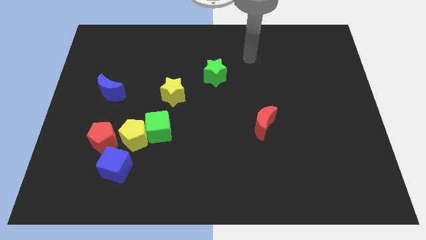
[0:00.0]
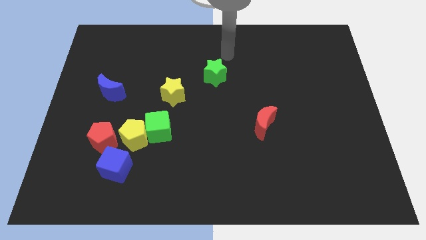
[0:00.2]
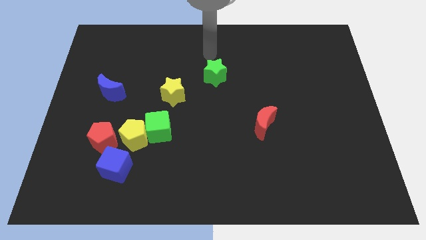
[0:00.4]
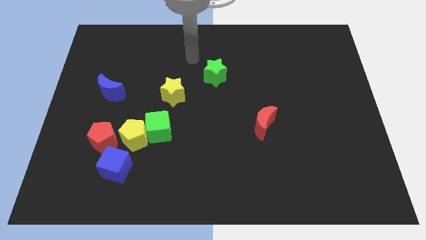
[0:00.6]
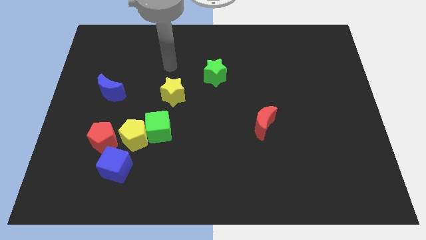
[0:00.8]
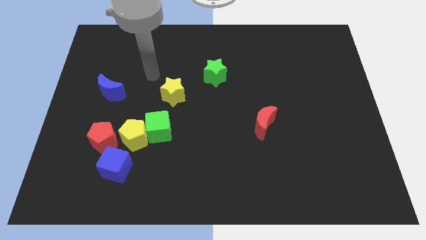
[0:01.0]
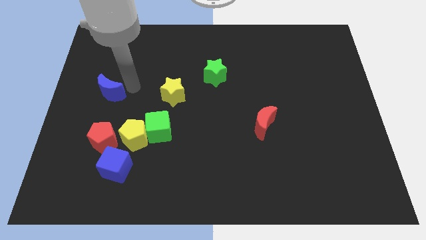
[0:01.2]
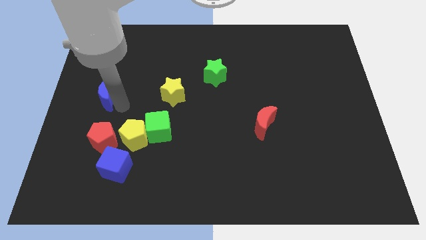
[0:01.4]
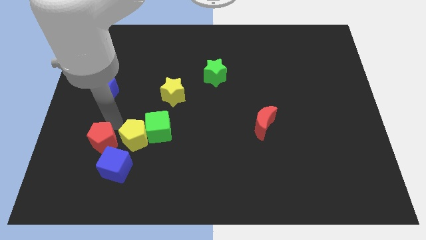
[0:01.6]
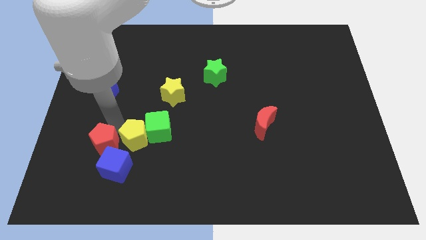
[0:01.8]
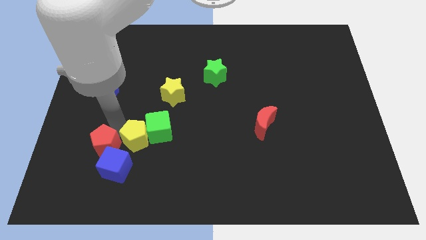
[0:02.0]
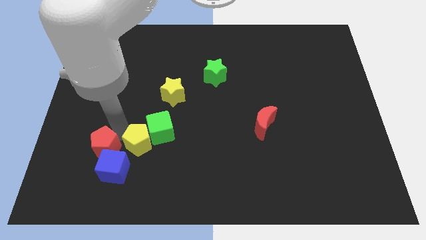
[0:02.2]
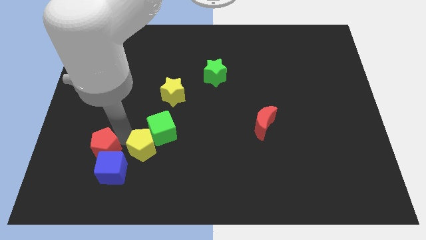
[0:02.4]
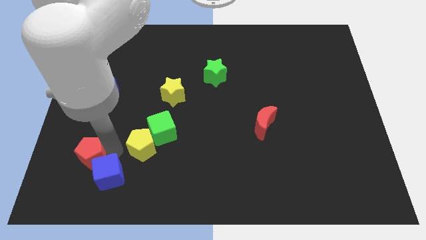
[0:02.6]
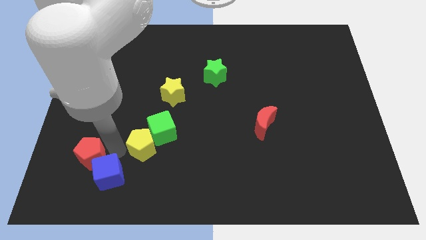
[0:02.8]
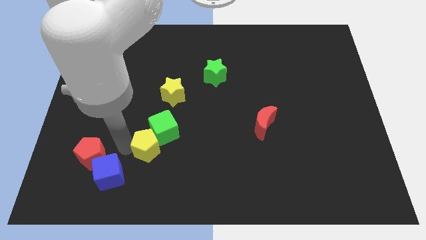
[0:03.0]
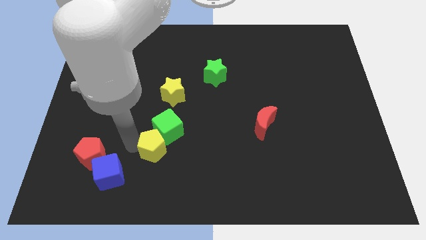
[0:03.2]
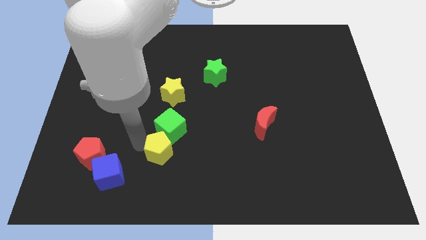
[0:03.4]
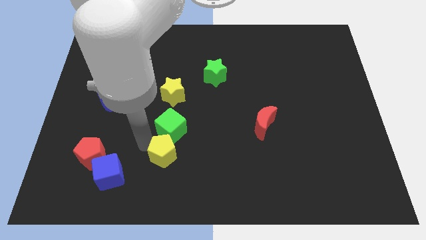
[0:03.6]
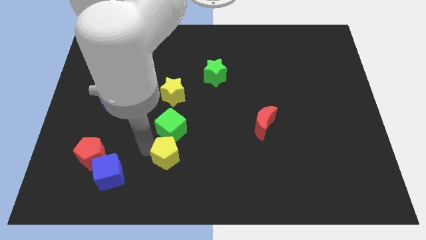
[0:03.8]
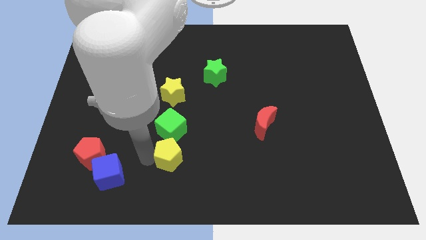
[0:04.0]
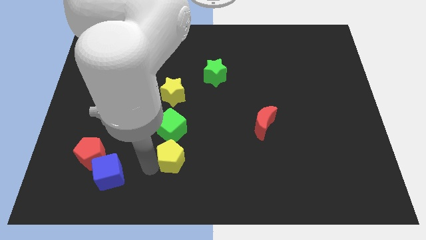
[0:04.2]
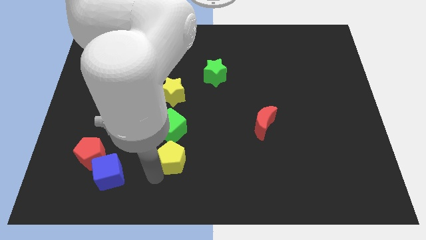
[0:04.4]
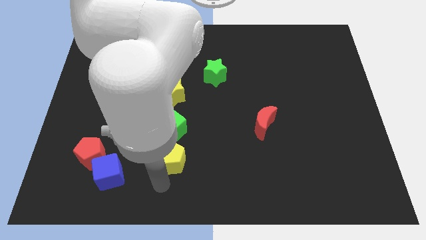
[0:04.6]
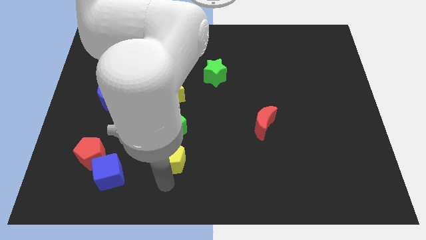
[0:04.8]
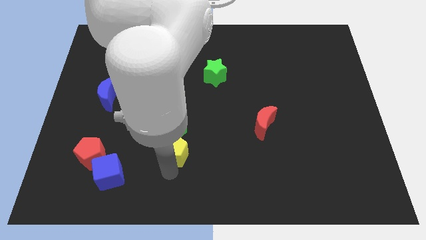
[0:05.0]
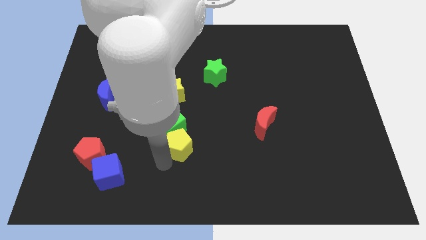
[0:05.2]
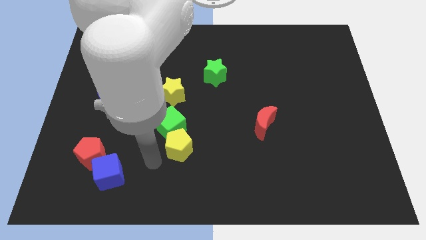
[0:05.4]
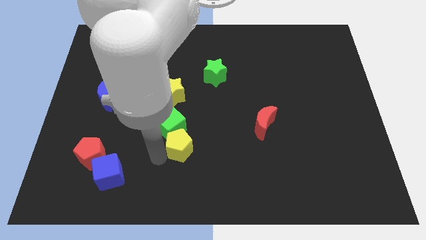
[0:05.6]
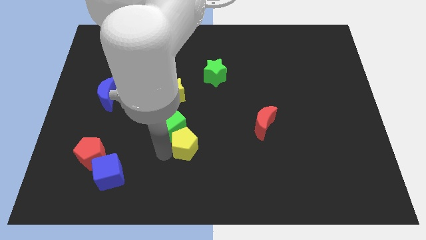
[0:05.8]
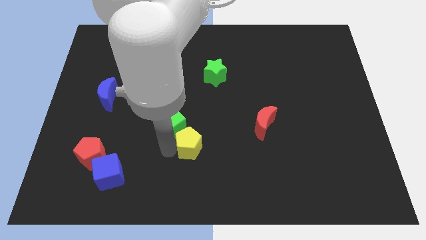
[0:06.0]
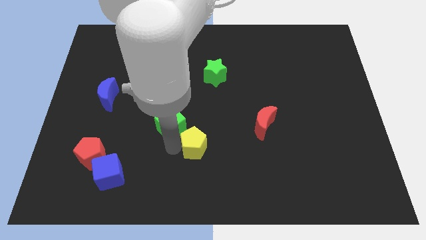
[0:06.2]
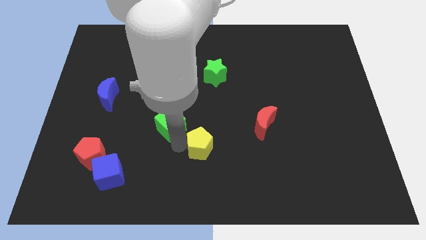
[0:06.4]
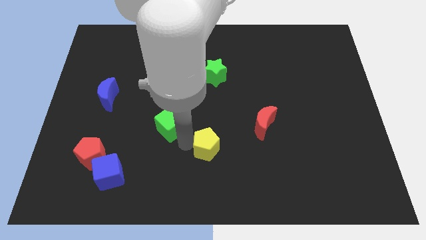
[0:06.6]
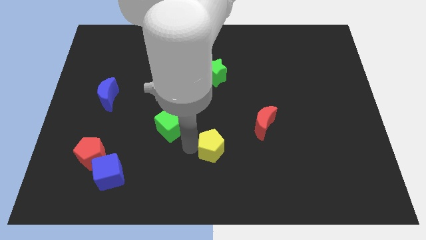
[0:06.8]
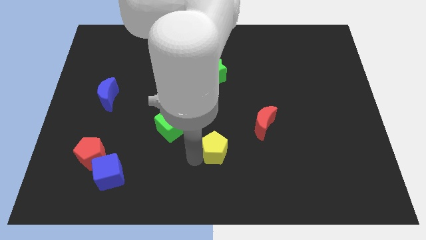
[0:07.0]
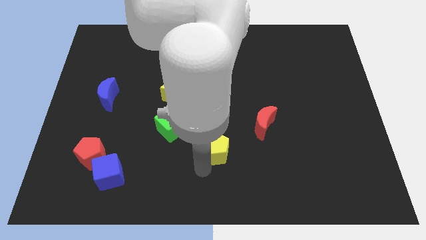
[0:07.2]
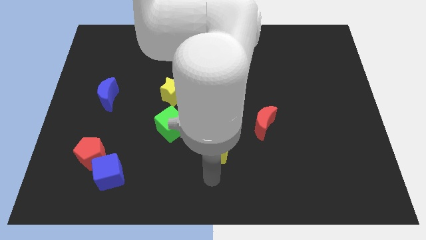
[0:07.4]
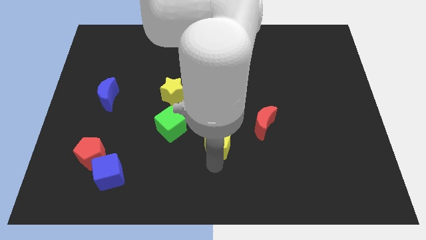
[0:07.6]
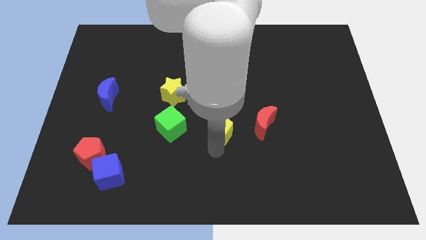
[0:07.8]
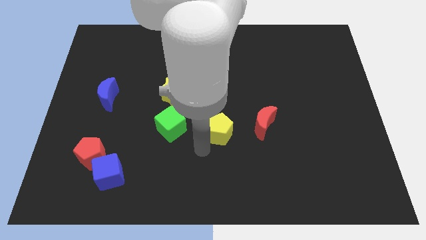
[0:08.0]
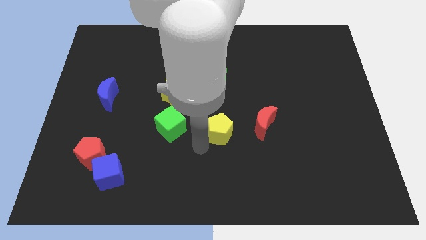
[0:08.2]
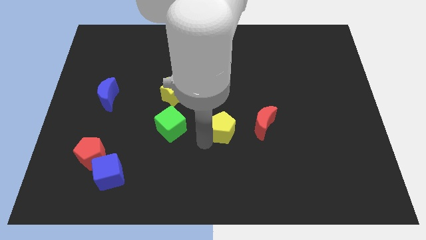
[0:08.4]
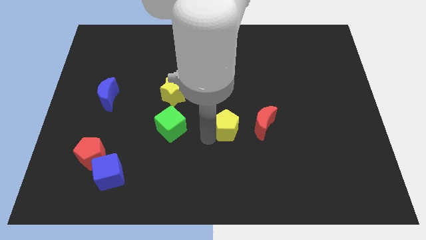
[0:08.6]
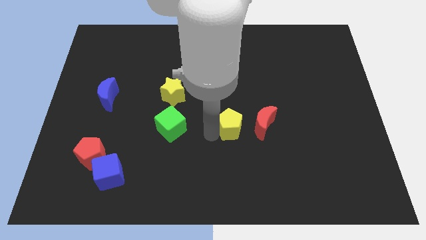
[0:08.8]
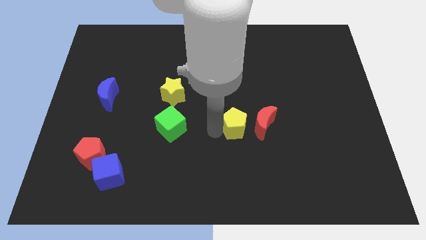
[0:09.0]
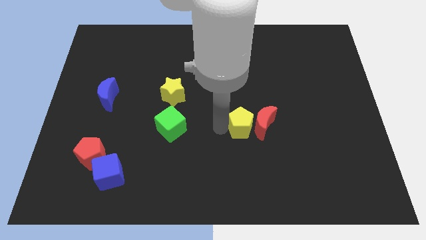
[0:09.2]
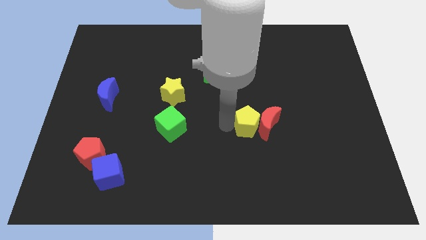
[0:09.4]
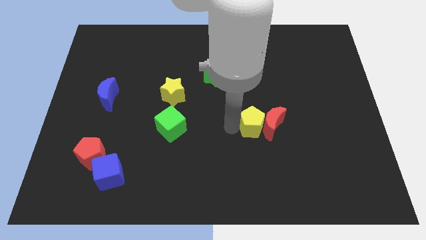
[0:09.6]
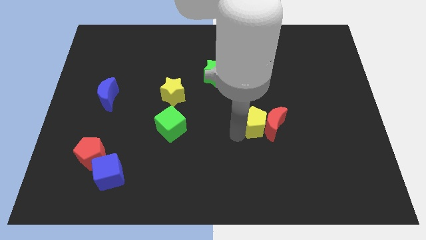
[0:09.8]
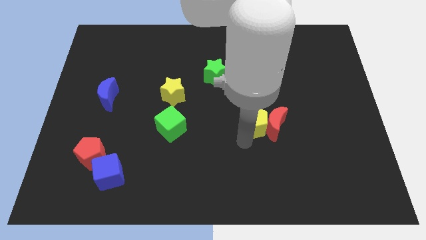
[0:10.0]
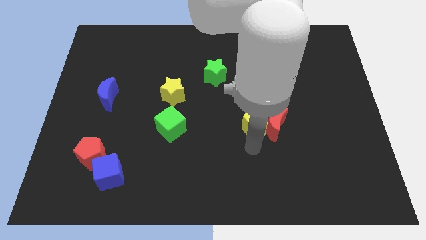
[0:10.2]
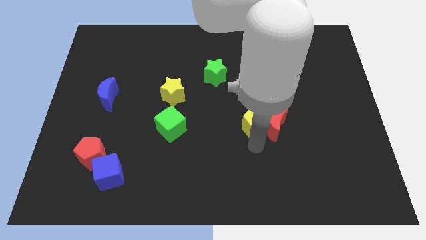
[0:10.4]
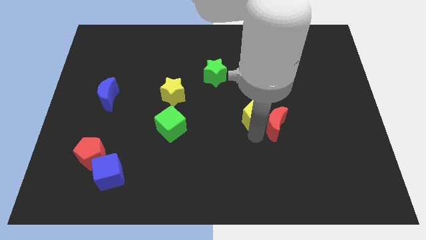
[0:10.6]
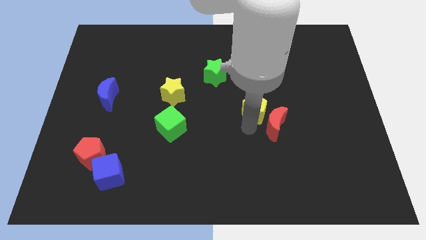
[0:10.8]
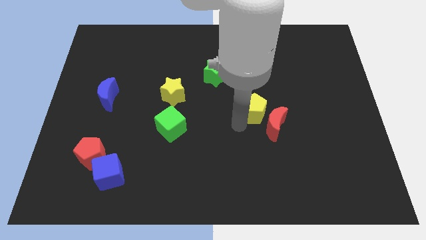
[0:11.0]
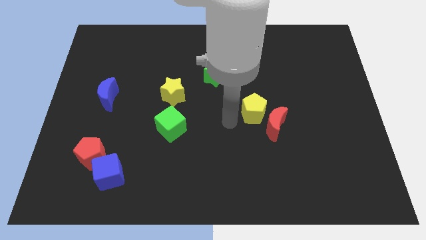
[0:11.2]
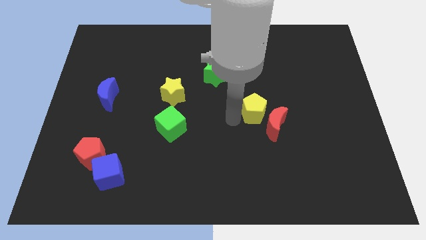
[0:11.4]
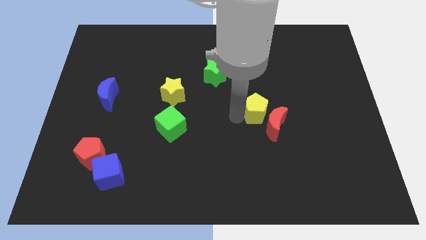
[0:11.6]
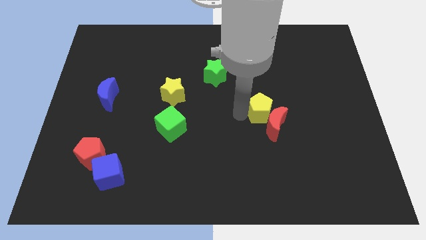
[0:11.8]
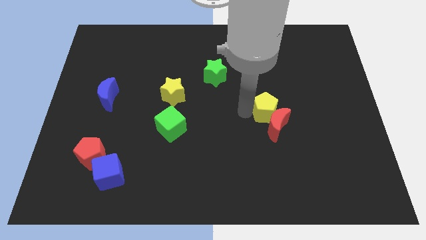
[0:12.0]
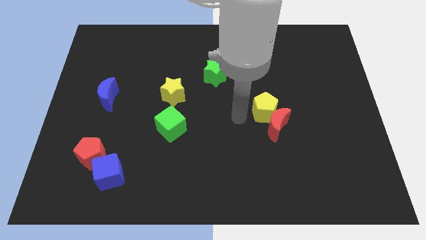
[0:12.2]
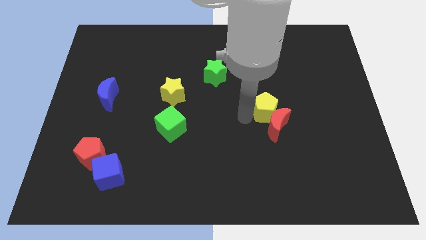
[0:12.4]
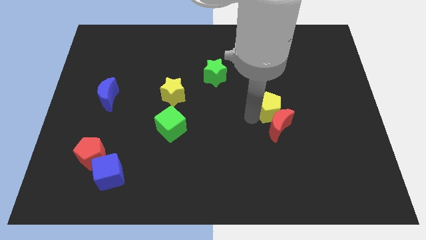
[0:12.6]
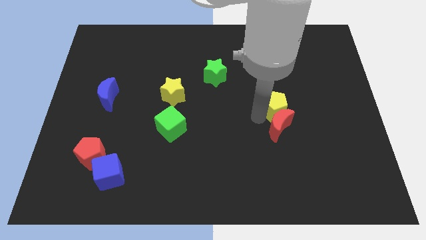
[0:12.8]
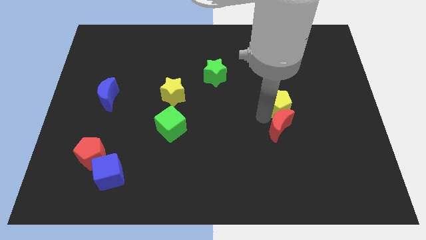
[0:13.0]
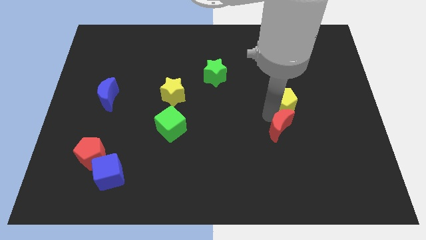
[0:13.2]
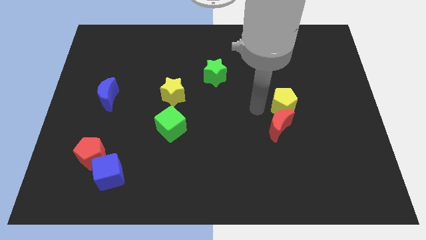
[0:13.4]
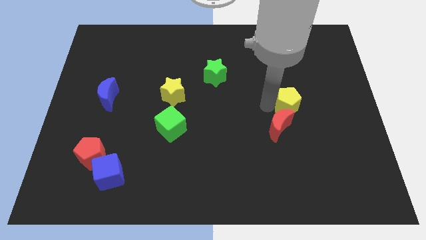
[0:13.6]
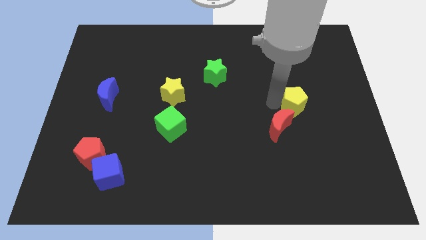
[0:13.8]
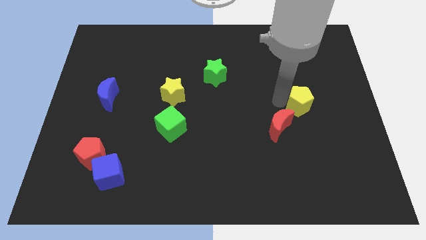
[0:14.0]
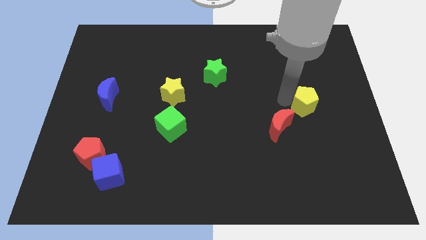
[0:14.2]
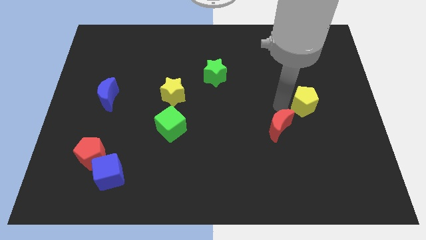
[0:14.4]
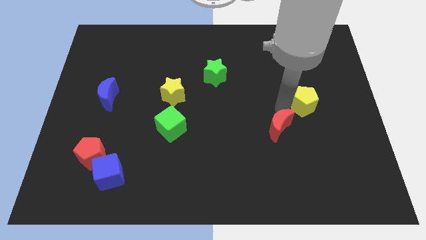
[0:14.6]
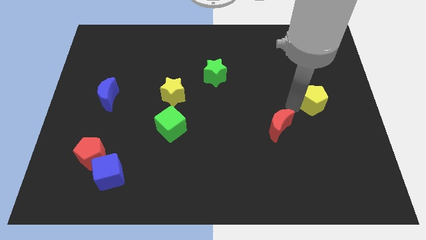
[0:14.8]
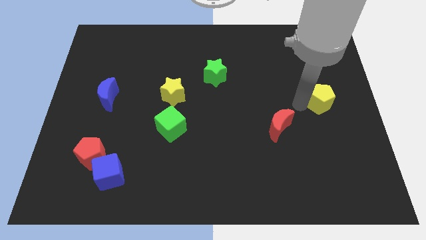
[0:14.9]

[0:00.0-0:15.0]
slide the yellow pentagon to the right side
